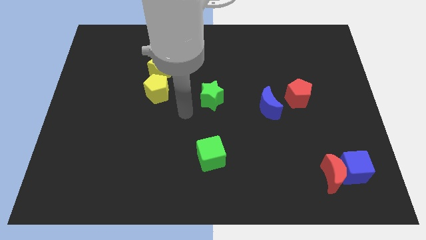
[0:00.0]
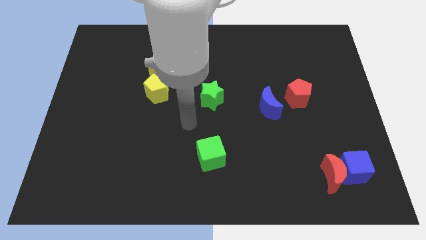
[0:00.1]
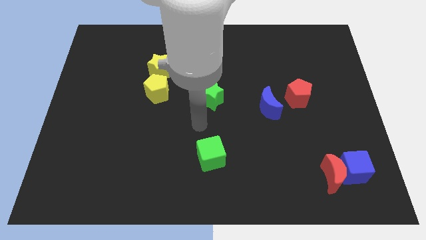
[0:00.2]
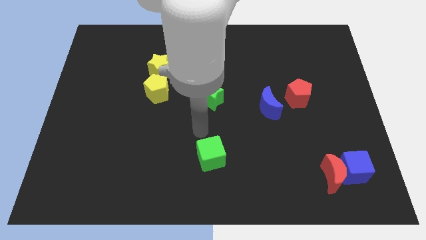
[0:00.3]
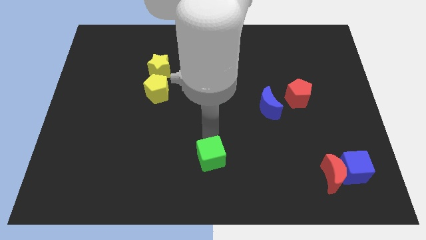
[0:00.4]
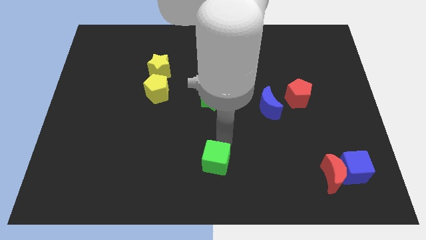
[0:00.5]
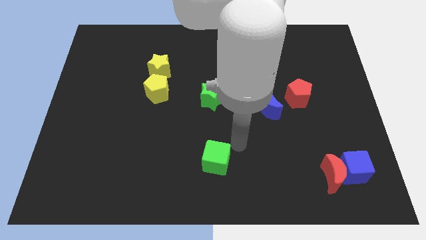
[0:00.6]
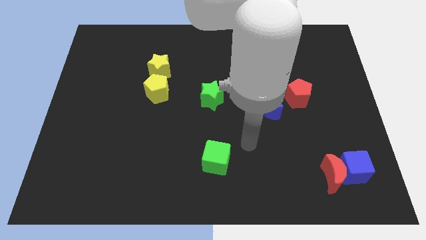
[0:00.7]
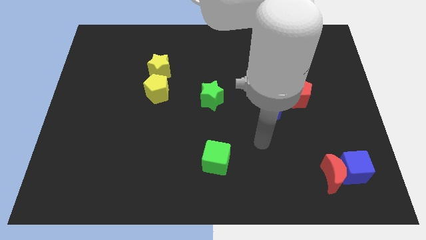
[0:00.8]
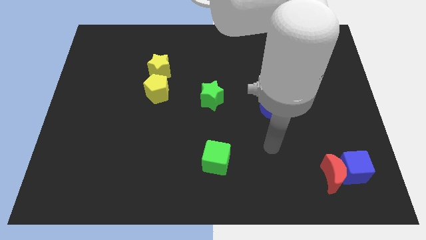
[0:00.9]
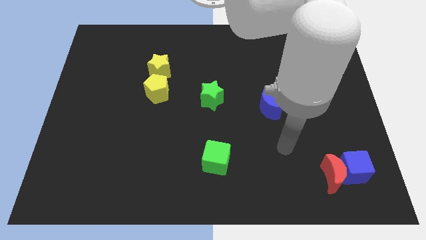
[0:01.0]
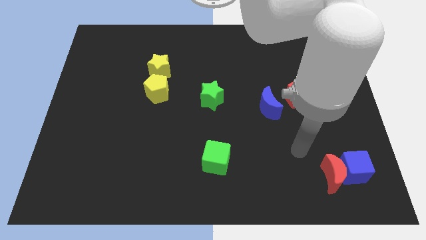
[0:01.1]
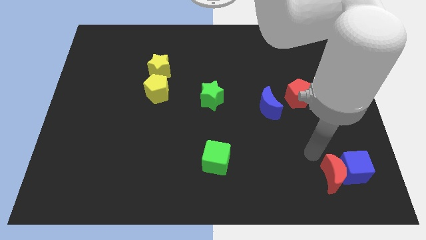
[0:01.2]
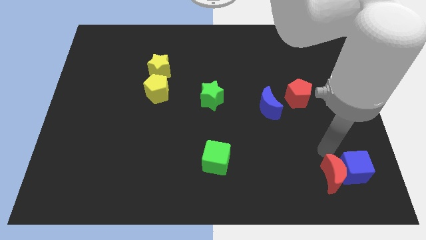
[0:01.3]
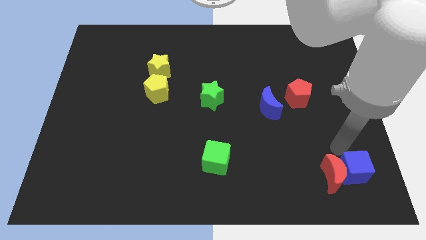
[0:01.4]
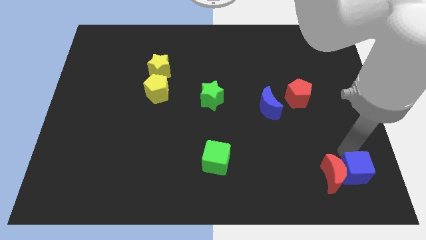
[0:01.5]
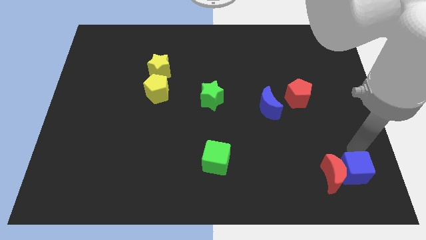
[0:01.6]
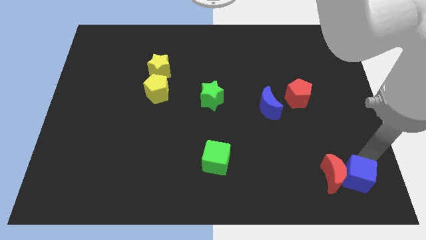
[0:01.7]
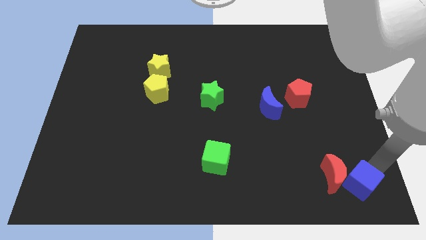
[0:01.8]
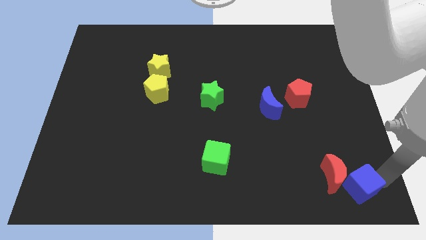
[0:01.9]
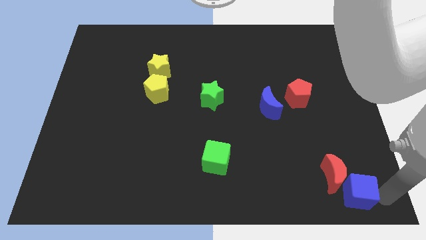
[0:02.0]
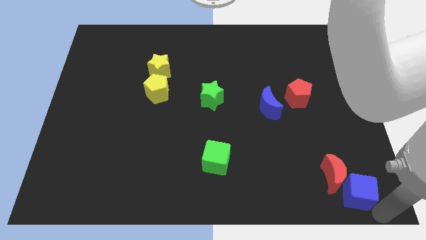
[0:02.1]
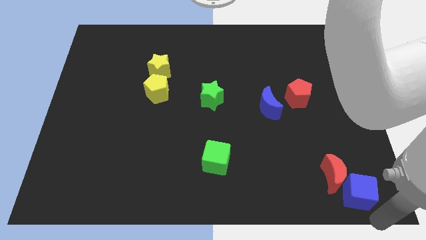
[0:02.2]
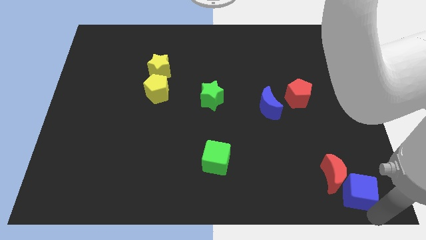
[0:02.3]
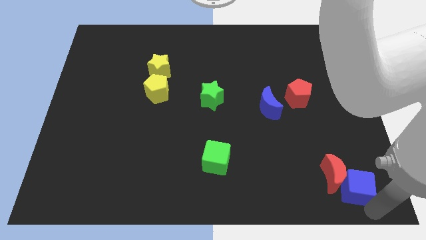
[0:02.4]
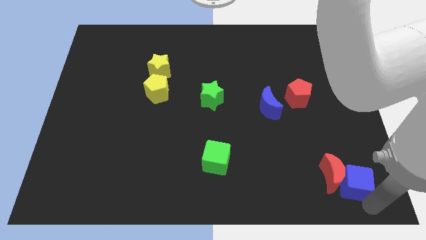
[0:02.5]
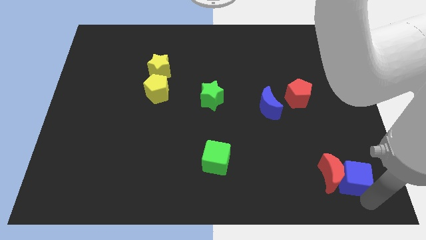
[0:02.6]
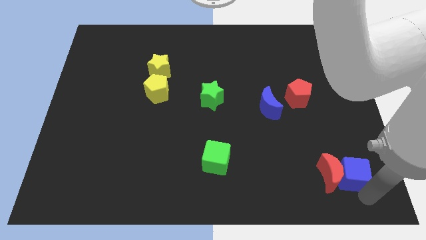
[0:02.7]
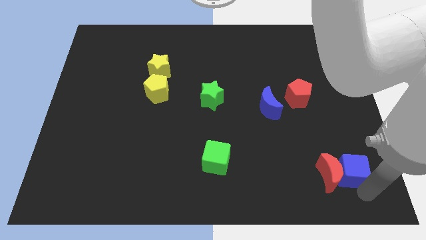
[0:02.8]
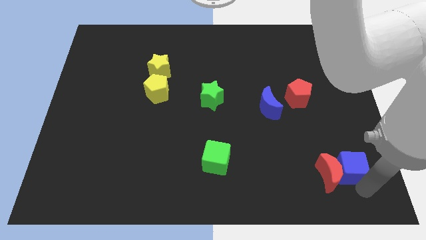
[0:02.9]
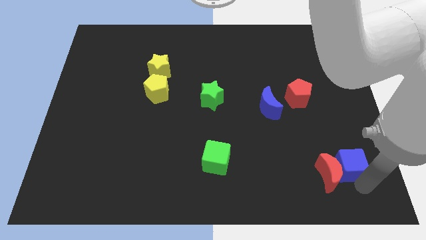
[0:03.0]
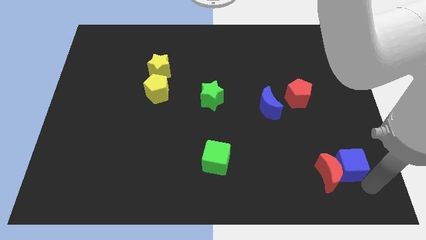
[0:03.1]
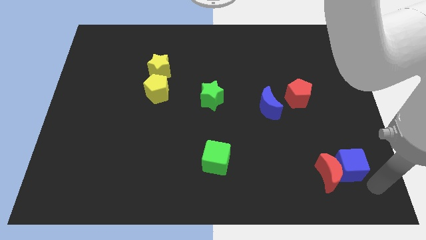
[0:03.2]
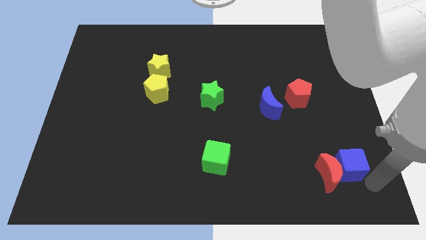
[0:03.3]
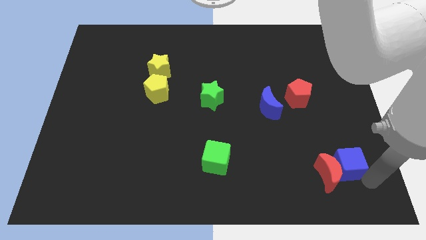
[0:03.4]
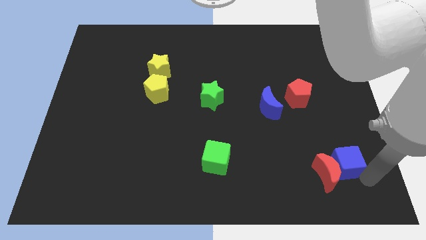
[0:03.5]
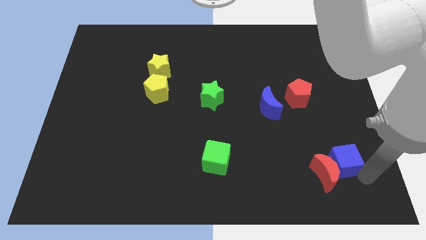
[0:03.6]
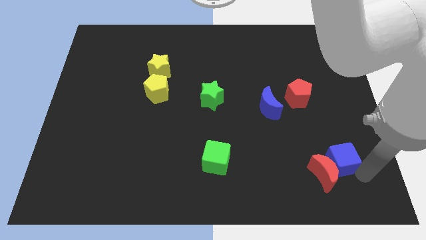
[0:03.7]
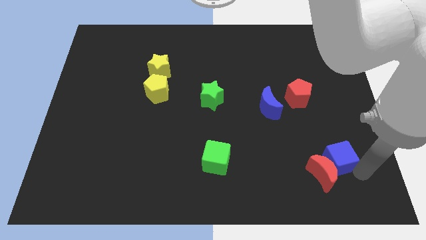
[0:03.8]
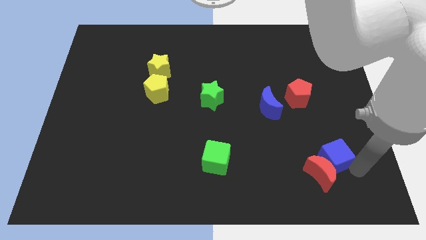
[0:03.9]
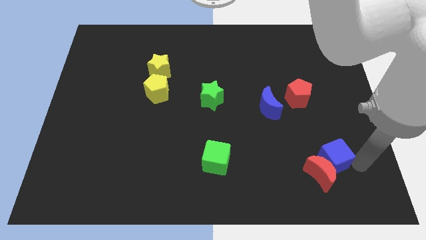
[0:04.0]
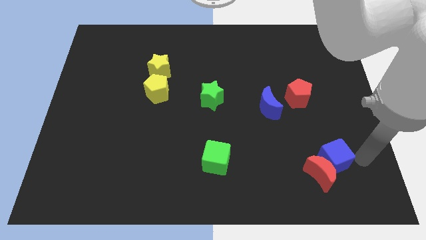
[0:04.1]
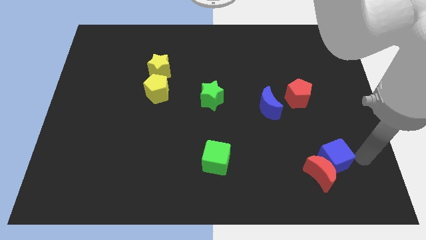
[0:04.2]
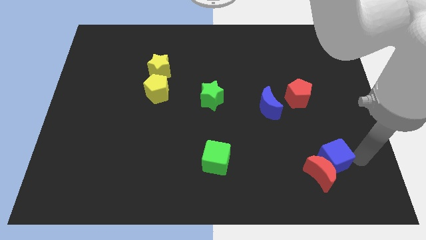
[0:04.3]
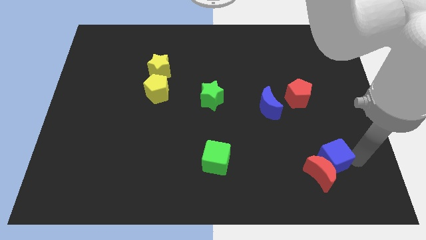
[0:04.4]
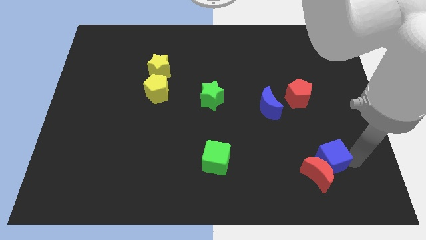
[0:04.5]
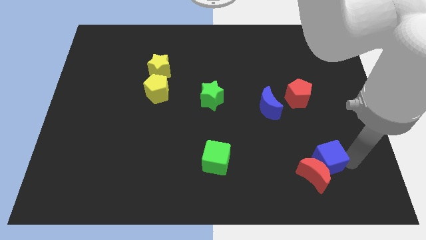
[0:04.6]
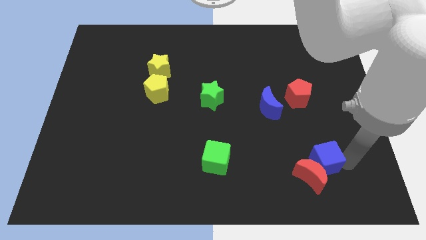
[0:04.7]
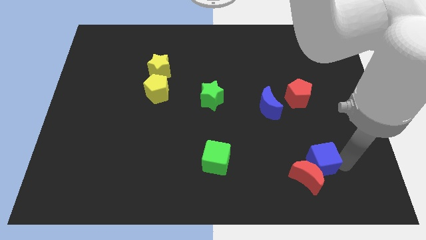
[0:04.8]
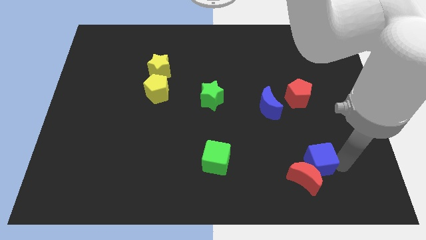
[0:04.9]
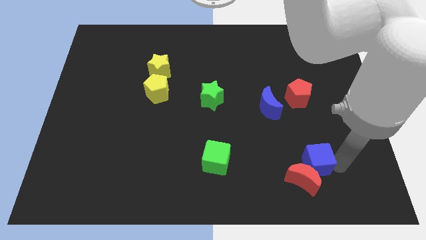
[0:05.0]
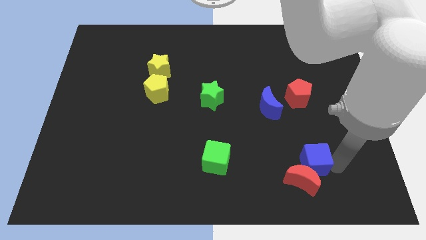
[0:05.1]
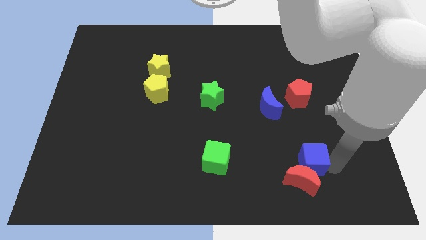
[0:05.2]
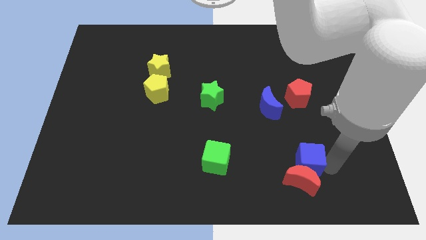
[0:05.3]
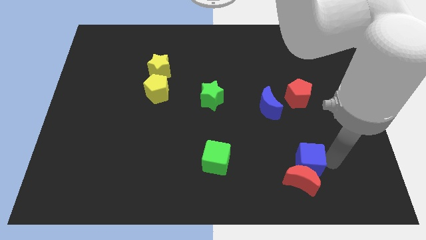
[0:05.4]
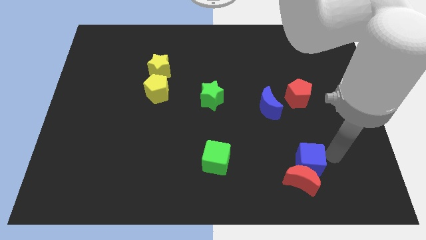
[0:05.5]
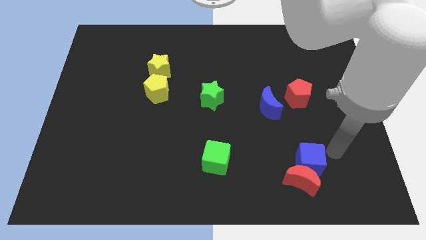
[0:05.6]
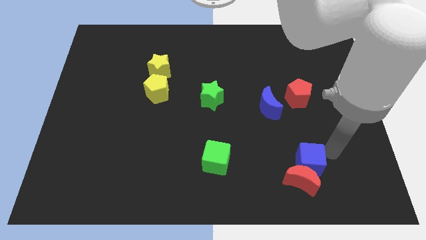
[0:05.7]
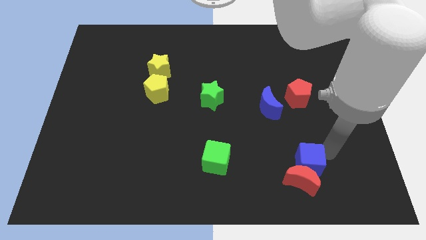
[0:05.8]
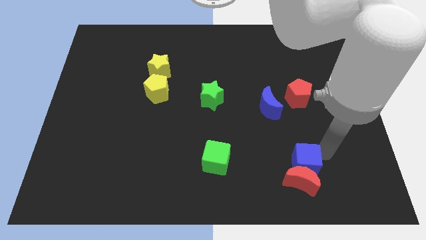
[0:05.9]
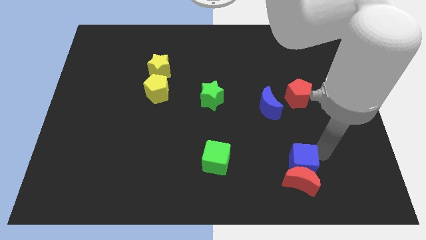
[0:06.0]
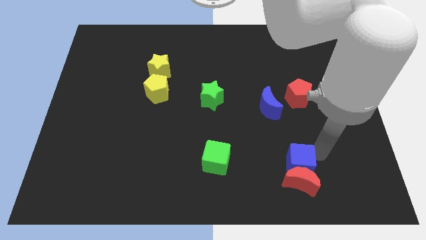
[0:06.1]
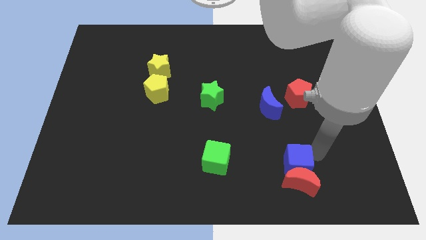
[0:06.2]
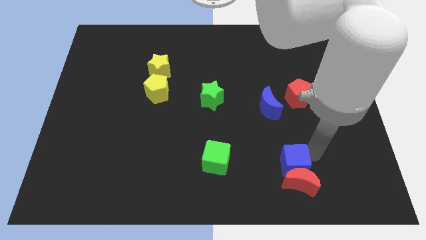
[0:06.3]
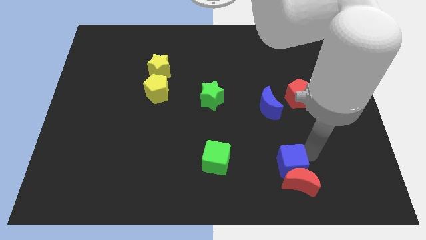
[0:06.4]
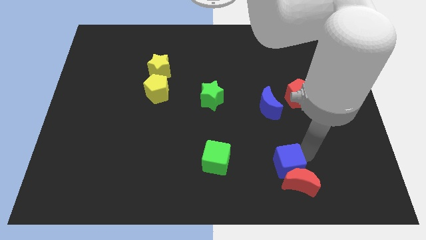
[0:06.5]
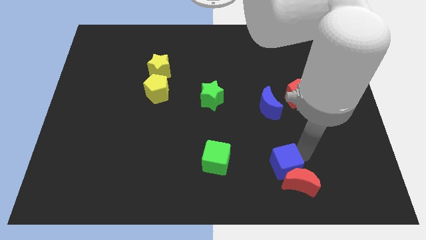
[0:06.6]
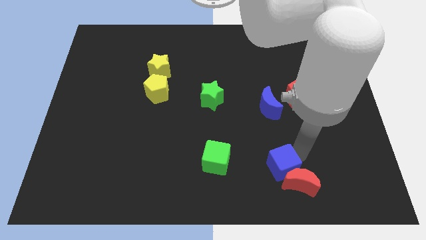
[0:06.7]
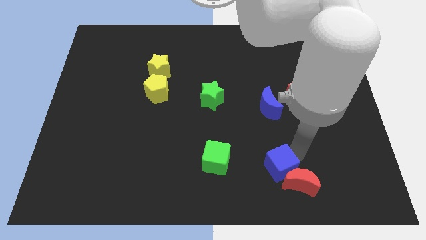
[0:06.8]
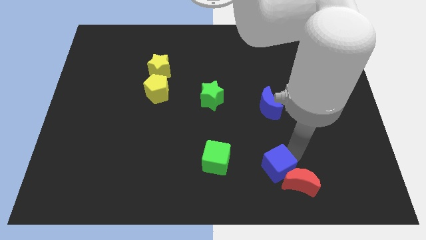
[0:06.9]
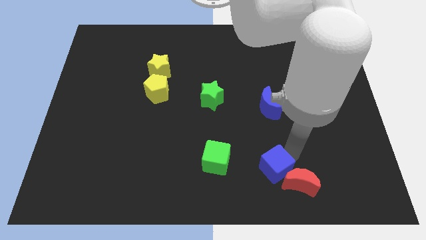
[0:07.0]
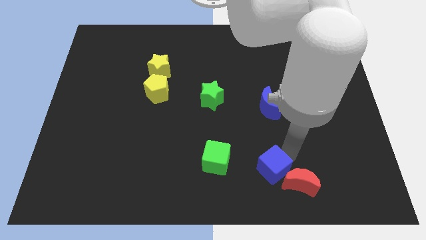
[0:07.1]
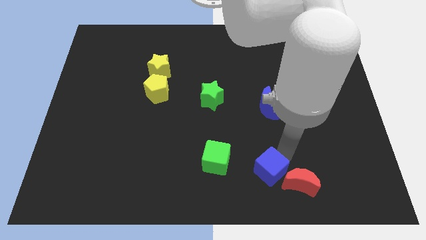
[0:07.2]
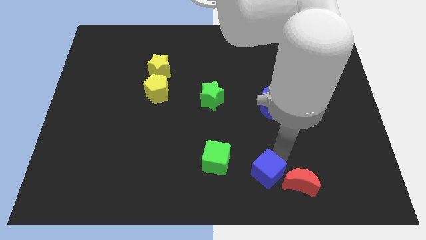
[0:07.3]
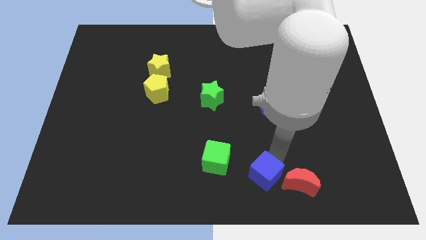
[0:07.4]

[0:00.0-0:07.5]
push the blue cube to the bottom
